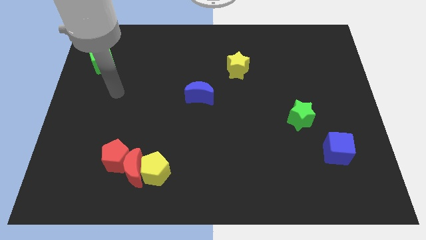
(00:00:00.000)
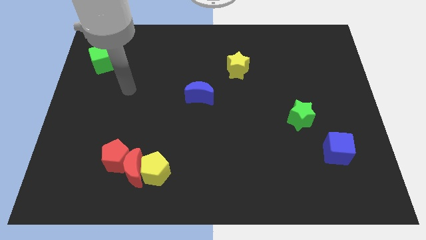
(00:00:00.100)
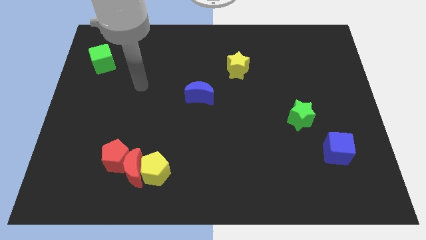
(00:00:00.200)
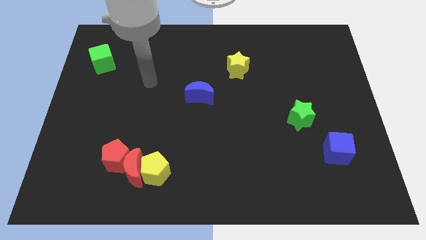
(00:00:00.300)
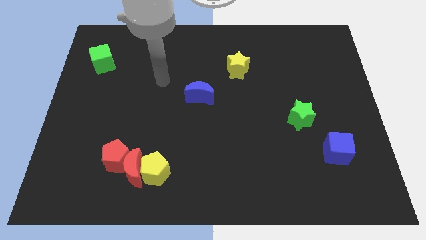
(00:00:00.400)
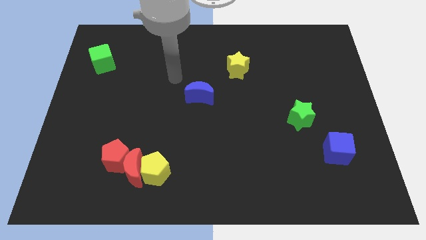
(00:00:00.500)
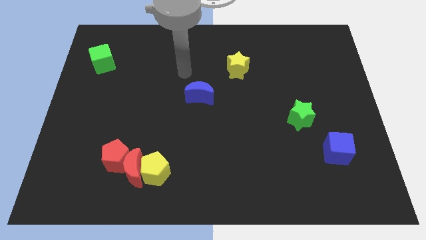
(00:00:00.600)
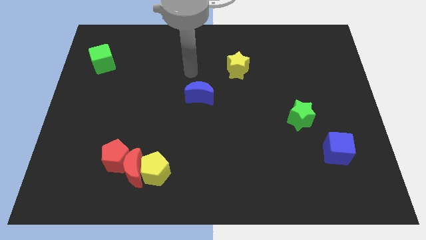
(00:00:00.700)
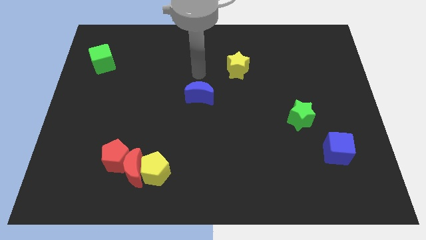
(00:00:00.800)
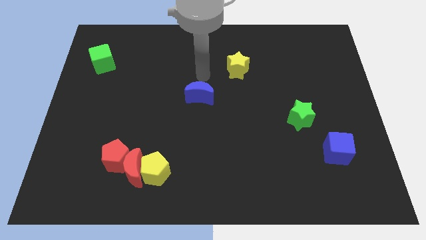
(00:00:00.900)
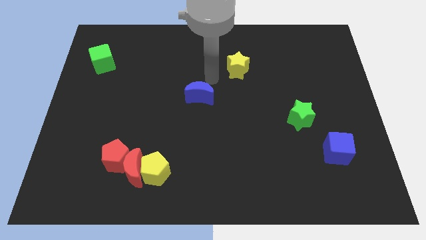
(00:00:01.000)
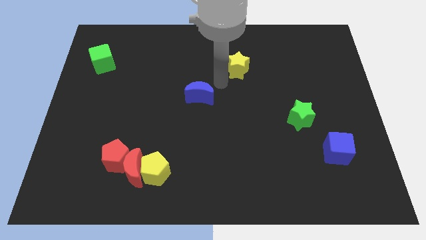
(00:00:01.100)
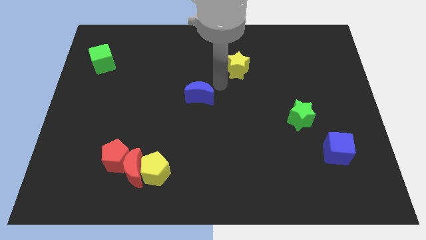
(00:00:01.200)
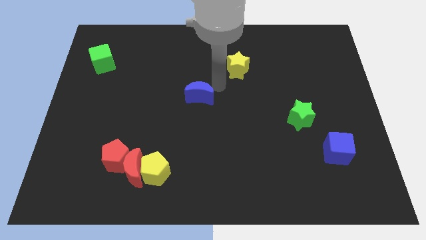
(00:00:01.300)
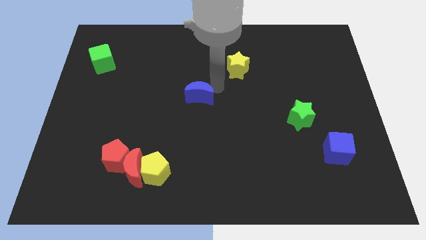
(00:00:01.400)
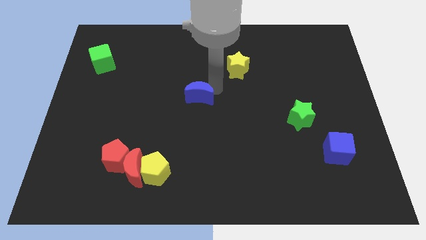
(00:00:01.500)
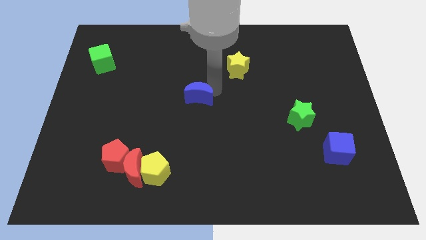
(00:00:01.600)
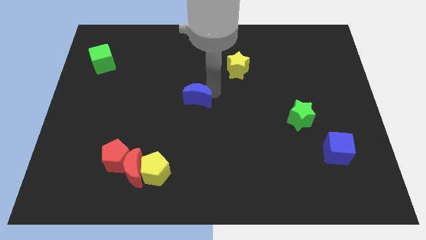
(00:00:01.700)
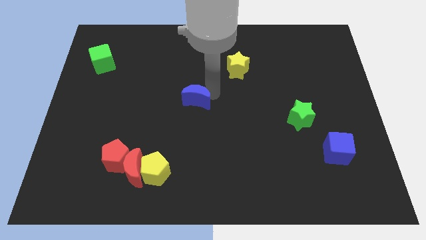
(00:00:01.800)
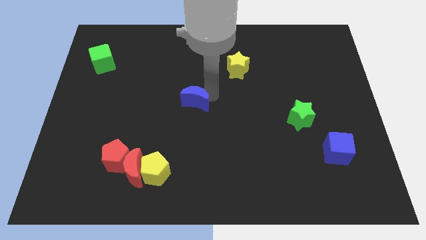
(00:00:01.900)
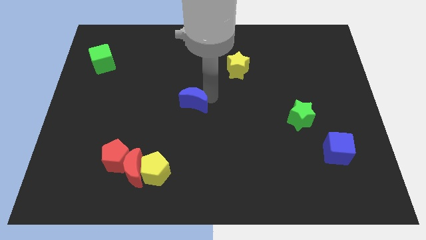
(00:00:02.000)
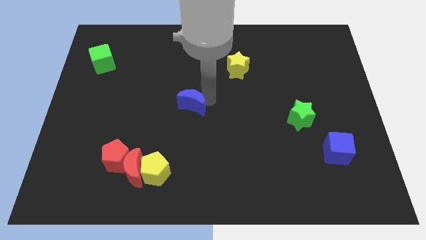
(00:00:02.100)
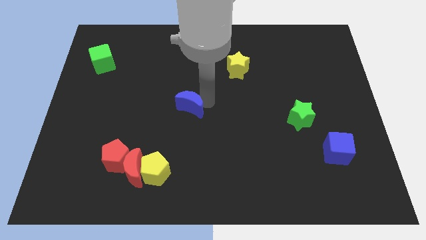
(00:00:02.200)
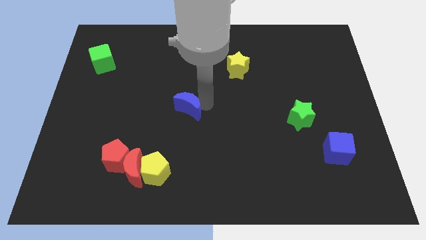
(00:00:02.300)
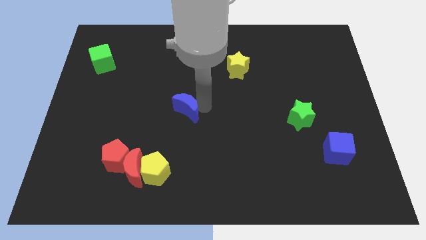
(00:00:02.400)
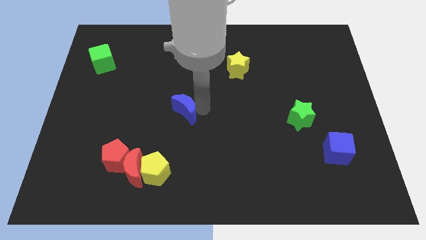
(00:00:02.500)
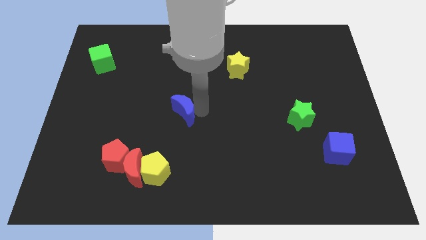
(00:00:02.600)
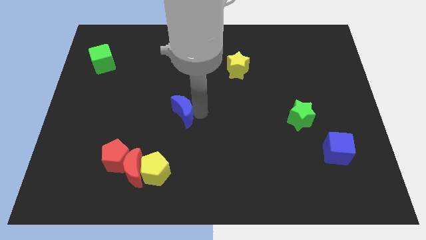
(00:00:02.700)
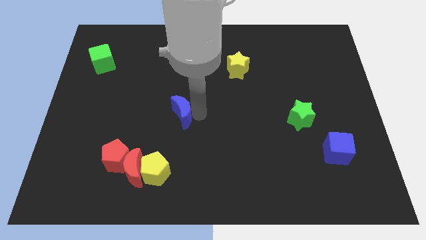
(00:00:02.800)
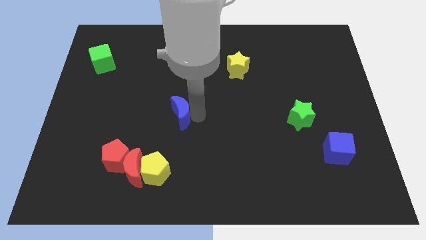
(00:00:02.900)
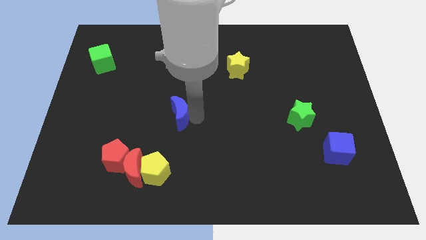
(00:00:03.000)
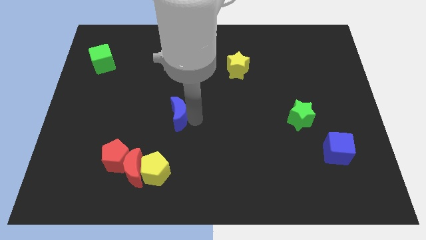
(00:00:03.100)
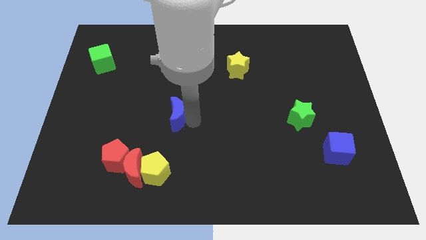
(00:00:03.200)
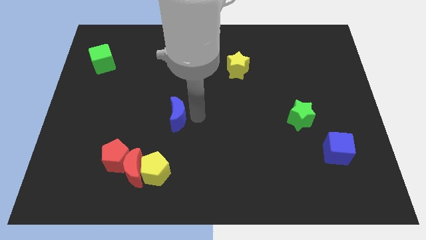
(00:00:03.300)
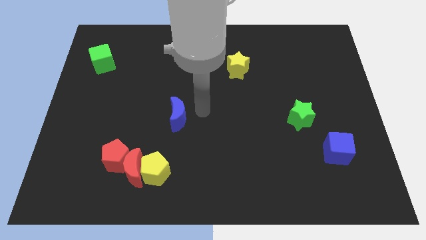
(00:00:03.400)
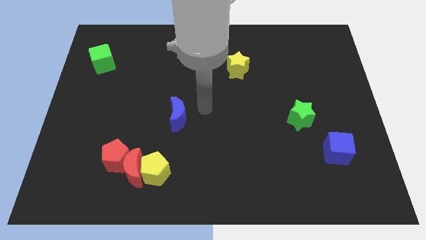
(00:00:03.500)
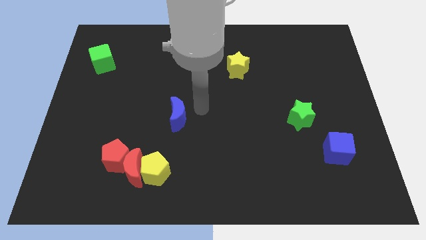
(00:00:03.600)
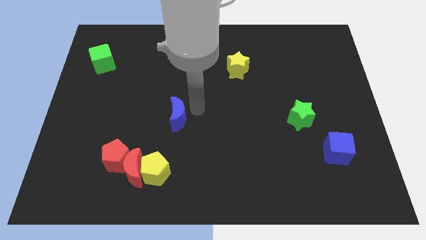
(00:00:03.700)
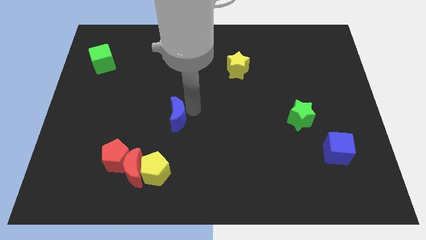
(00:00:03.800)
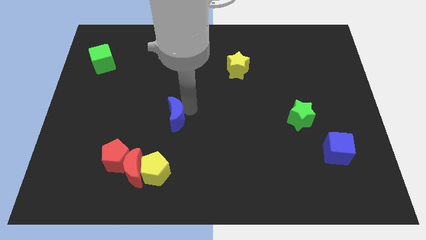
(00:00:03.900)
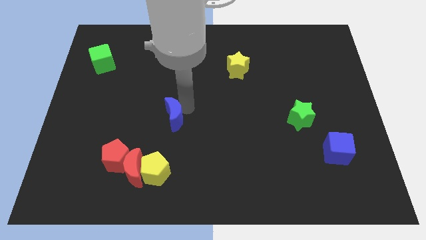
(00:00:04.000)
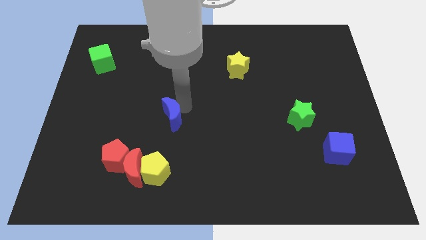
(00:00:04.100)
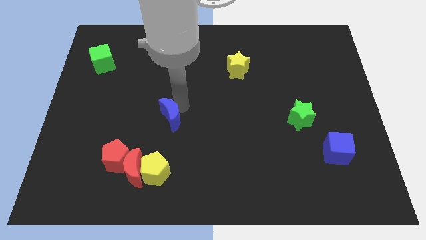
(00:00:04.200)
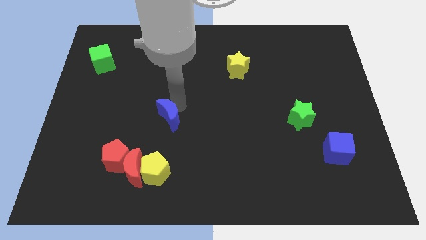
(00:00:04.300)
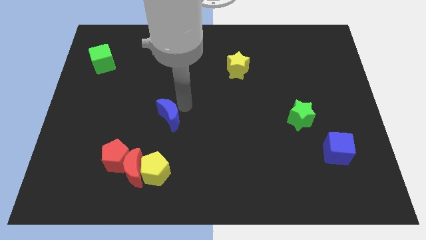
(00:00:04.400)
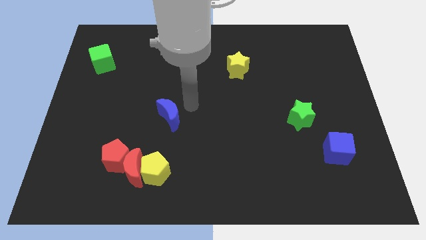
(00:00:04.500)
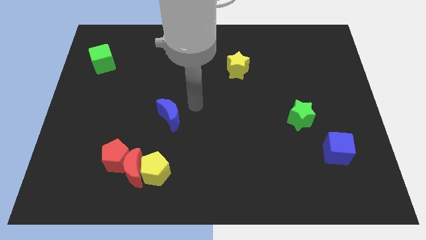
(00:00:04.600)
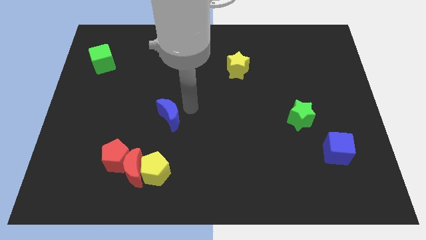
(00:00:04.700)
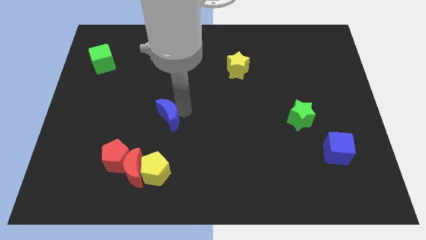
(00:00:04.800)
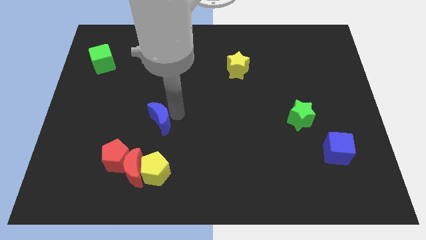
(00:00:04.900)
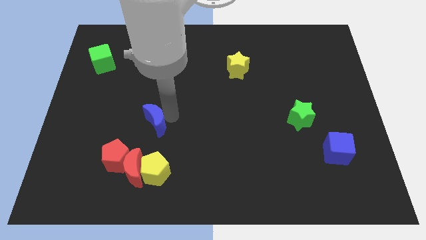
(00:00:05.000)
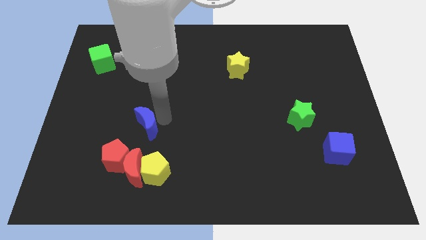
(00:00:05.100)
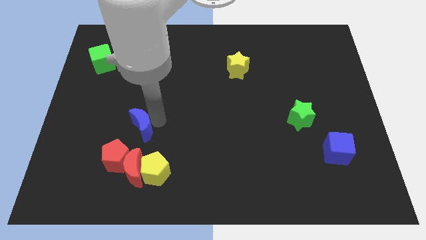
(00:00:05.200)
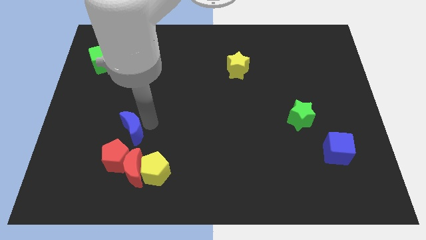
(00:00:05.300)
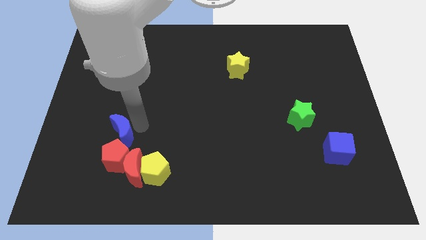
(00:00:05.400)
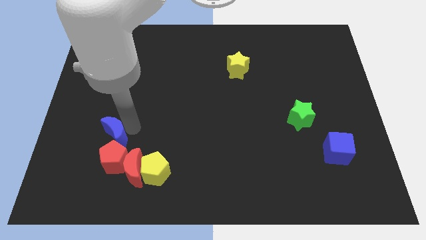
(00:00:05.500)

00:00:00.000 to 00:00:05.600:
move the blue moon downwards and to the left

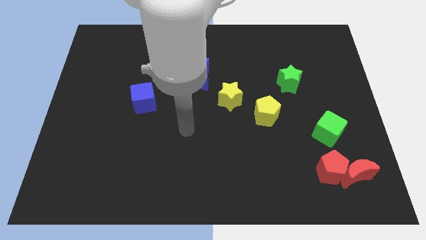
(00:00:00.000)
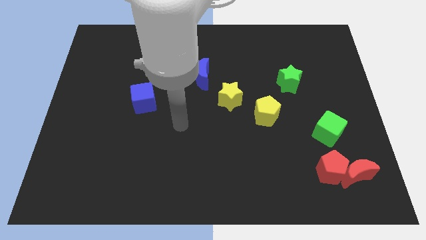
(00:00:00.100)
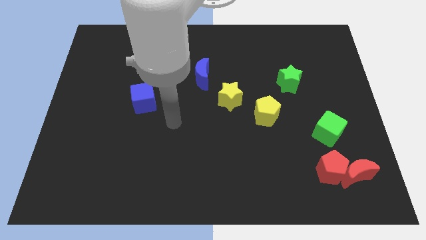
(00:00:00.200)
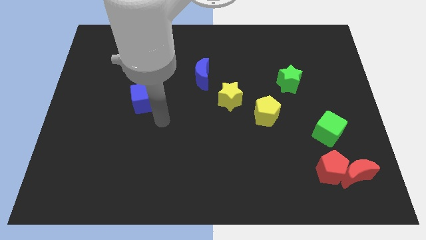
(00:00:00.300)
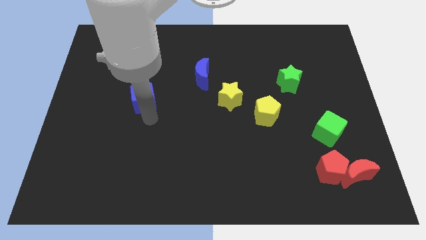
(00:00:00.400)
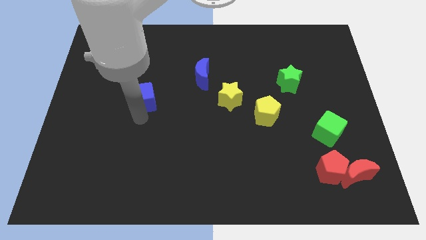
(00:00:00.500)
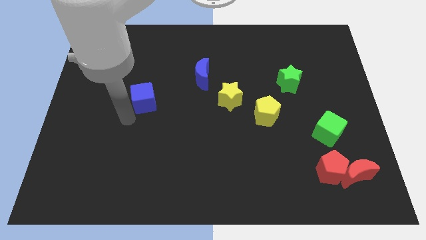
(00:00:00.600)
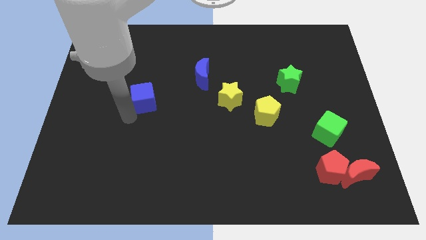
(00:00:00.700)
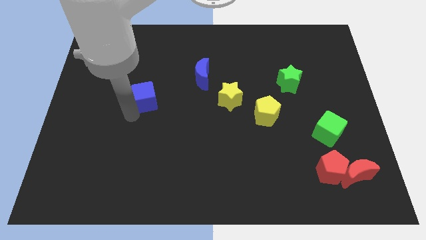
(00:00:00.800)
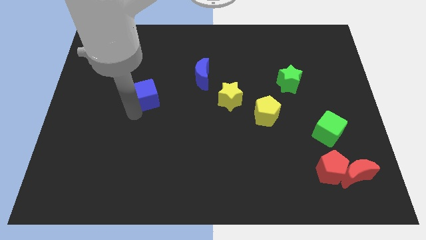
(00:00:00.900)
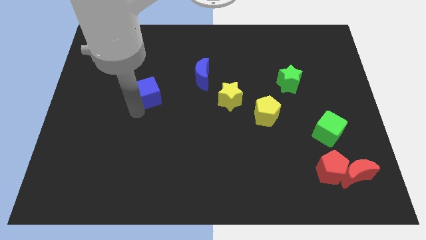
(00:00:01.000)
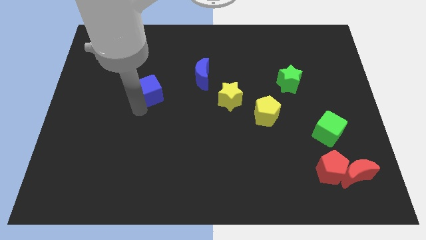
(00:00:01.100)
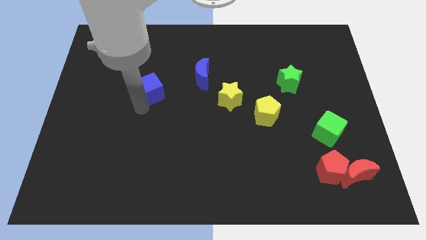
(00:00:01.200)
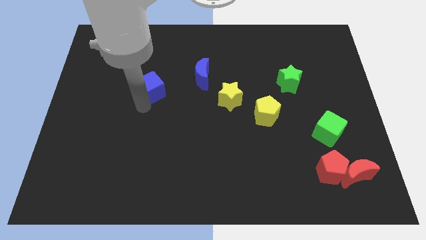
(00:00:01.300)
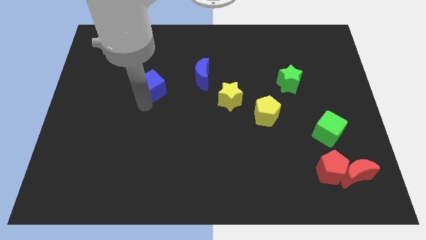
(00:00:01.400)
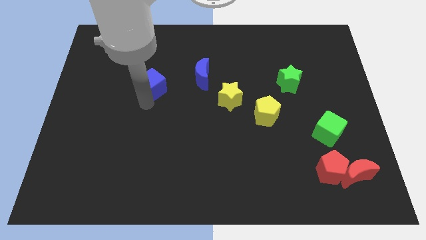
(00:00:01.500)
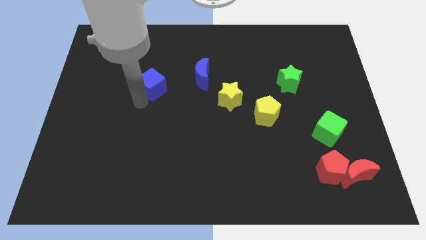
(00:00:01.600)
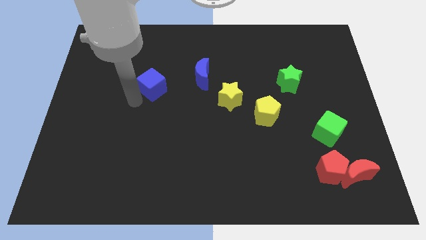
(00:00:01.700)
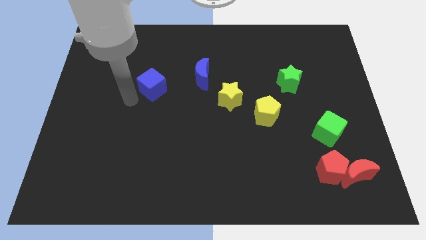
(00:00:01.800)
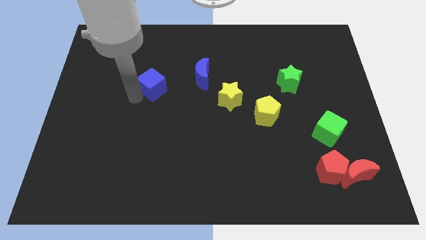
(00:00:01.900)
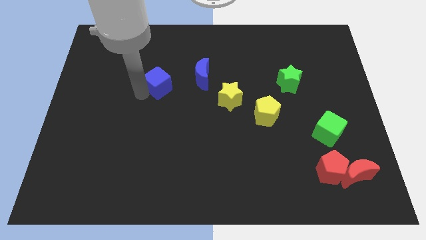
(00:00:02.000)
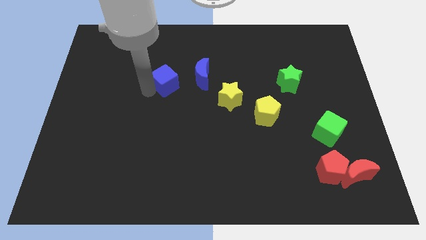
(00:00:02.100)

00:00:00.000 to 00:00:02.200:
slightly move the blue cube diagonally upwards and right

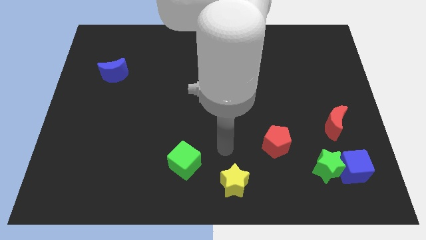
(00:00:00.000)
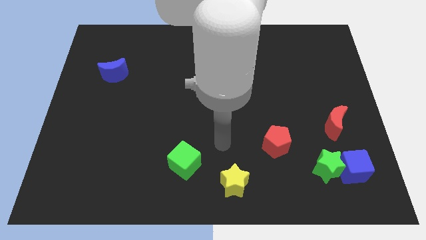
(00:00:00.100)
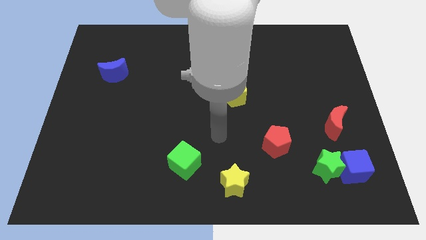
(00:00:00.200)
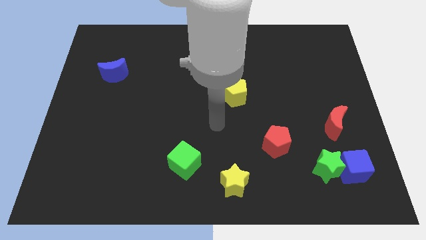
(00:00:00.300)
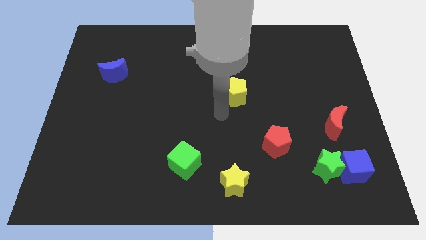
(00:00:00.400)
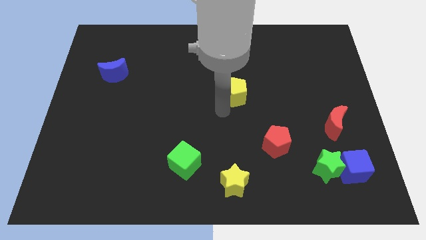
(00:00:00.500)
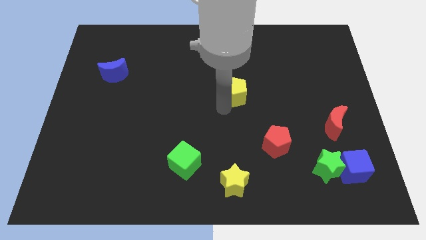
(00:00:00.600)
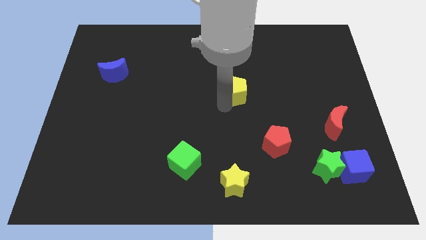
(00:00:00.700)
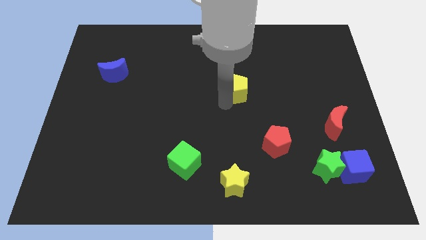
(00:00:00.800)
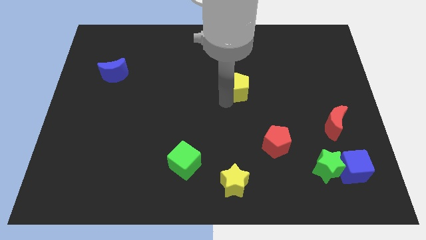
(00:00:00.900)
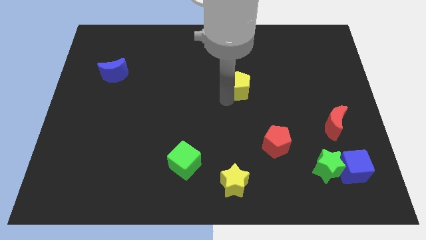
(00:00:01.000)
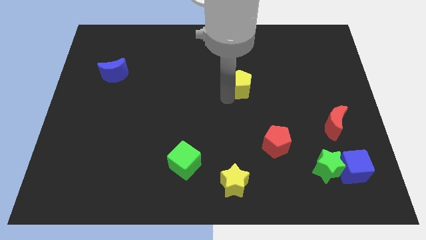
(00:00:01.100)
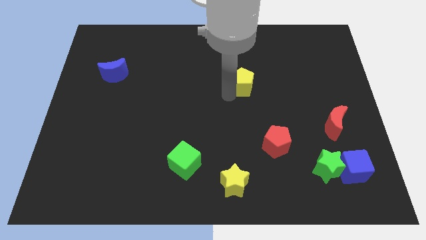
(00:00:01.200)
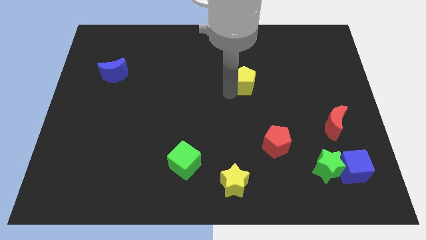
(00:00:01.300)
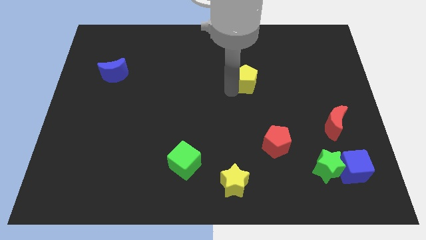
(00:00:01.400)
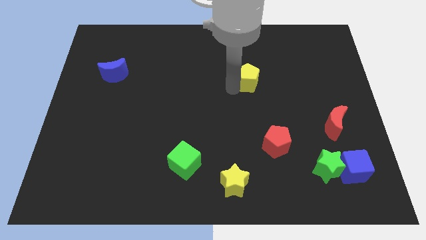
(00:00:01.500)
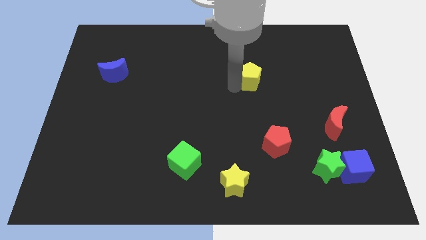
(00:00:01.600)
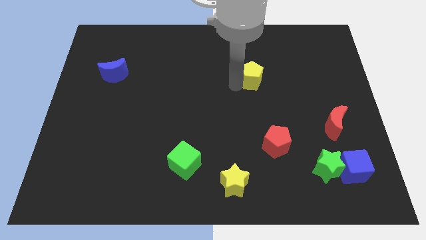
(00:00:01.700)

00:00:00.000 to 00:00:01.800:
push the yellow pentagon up and to the right diagonally a bit
